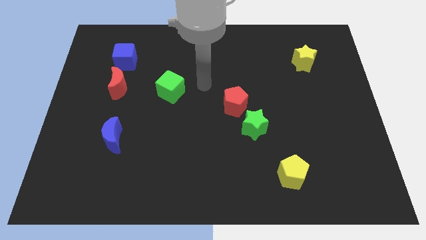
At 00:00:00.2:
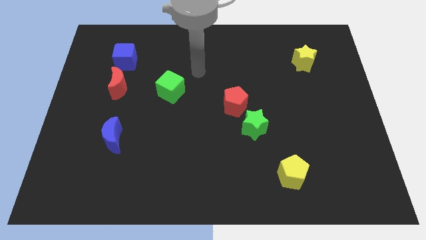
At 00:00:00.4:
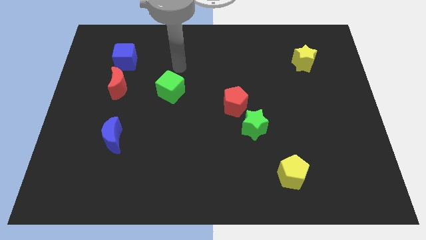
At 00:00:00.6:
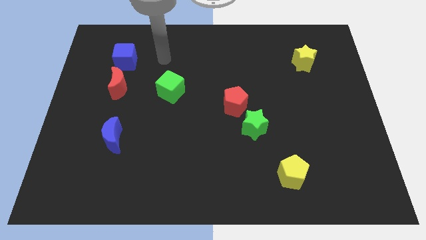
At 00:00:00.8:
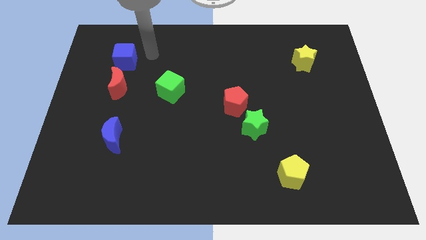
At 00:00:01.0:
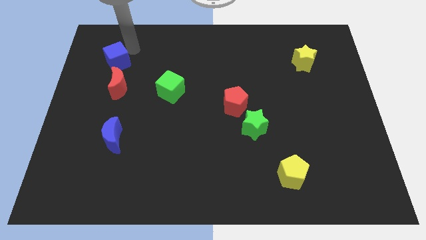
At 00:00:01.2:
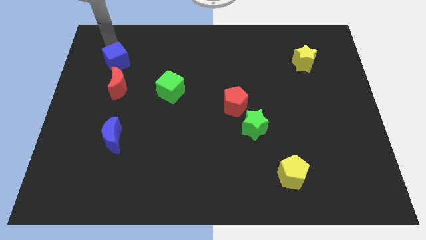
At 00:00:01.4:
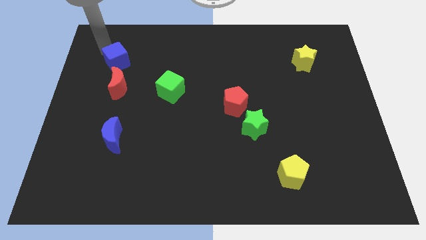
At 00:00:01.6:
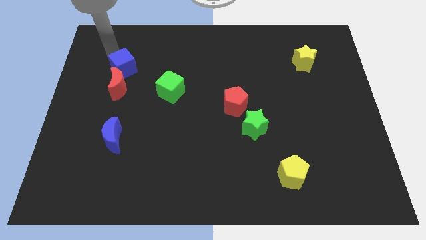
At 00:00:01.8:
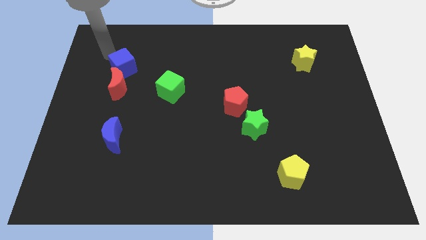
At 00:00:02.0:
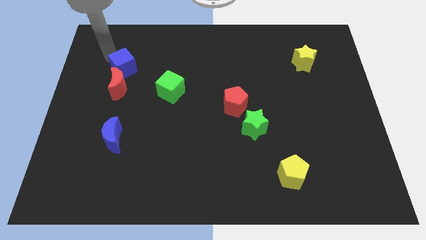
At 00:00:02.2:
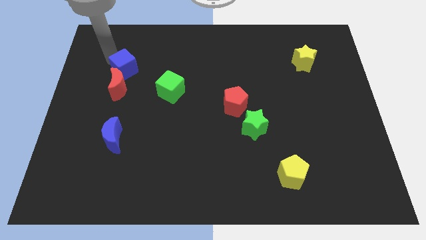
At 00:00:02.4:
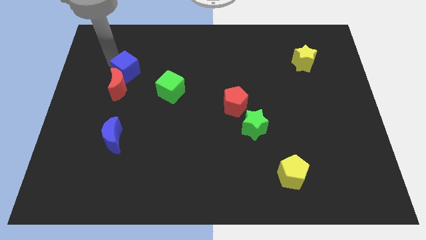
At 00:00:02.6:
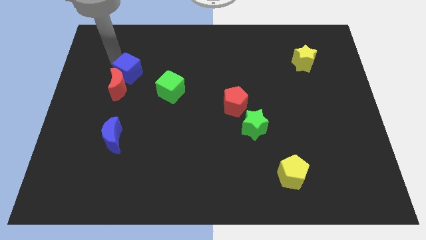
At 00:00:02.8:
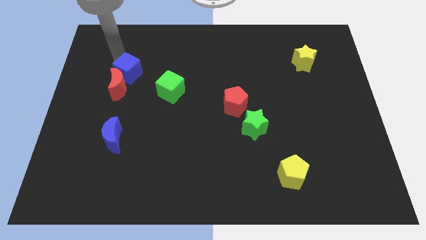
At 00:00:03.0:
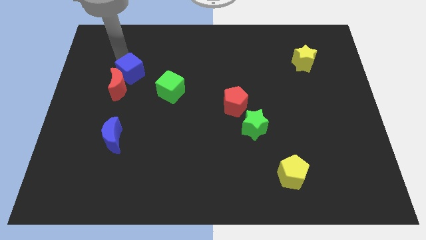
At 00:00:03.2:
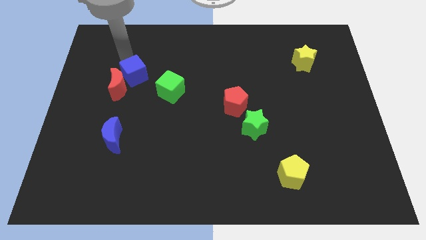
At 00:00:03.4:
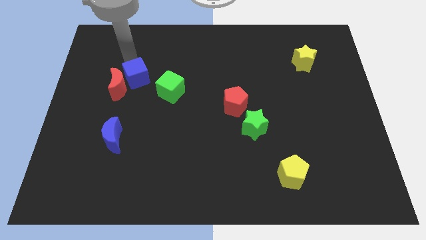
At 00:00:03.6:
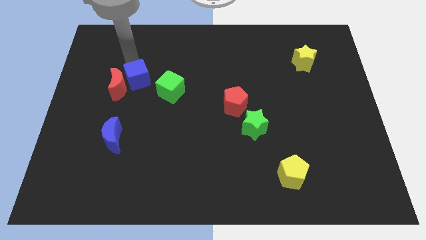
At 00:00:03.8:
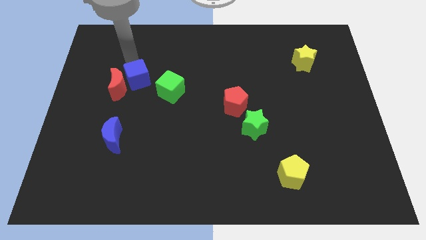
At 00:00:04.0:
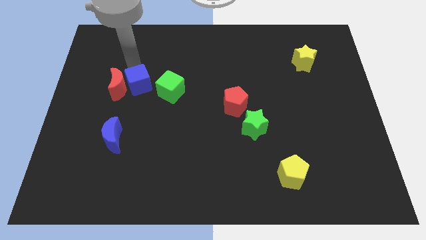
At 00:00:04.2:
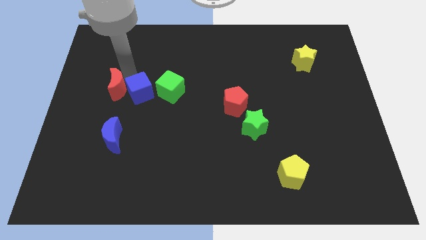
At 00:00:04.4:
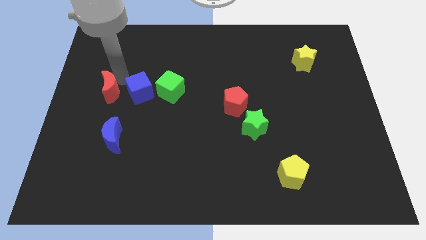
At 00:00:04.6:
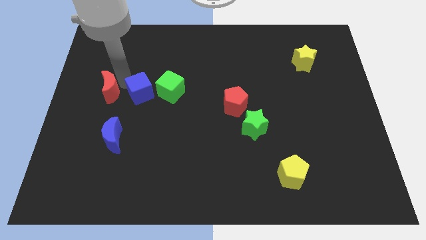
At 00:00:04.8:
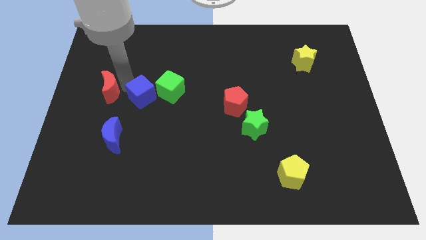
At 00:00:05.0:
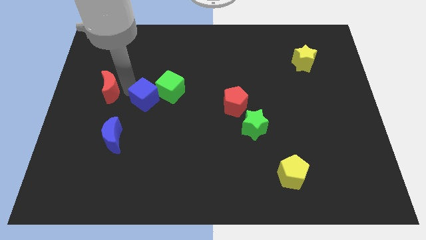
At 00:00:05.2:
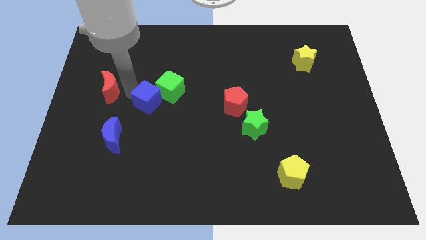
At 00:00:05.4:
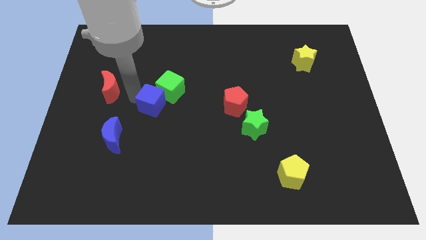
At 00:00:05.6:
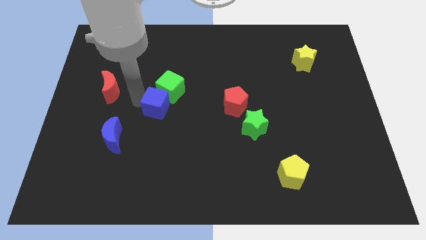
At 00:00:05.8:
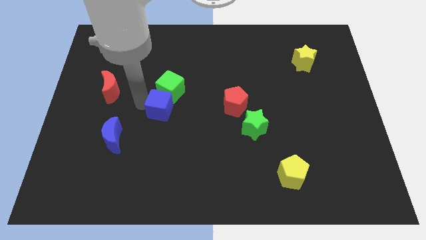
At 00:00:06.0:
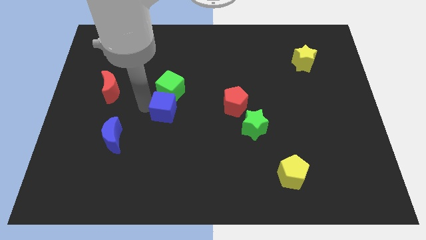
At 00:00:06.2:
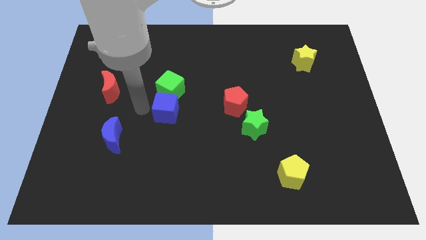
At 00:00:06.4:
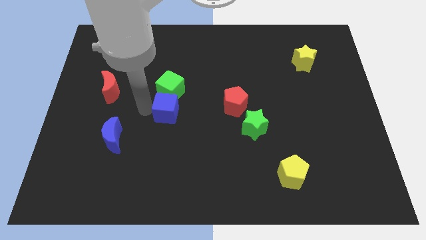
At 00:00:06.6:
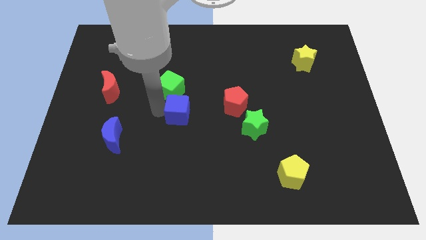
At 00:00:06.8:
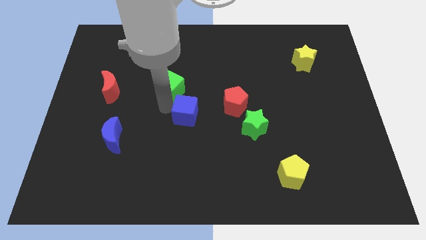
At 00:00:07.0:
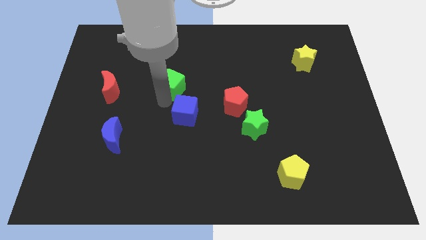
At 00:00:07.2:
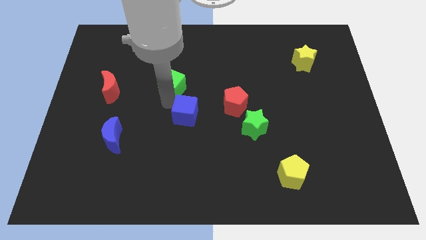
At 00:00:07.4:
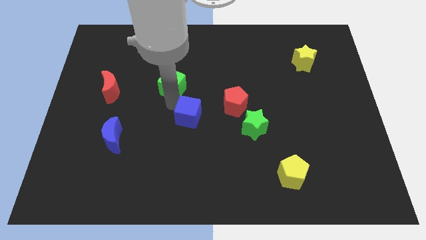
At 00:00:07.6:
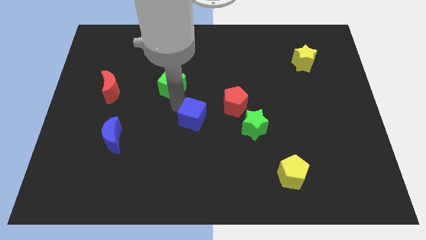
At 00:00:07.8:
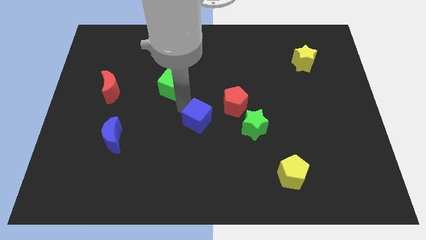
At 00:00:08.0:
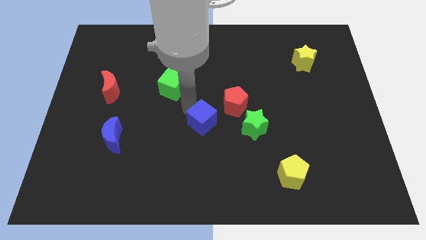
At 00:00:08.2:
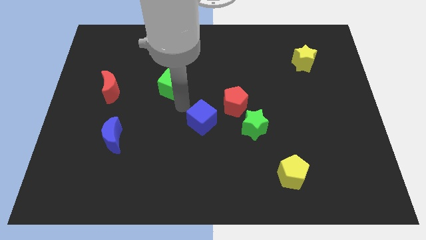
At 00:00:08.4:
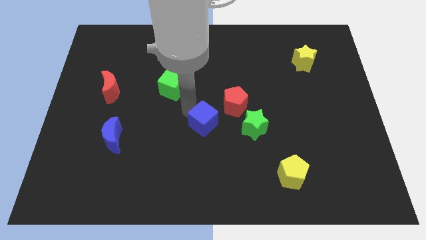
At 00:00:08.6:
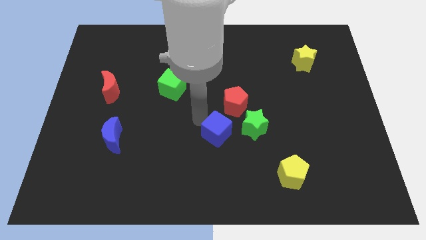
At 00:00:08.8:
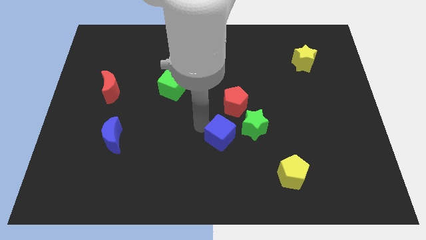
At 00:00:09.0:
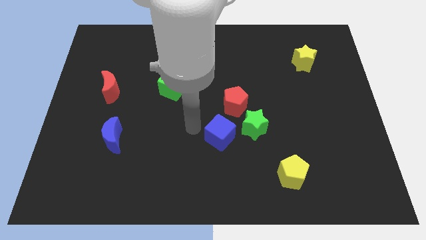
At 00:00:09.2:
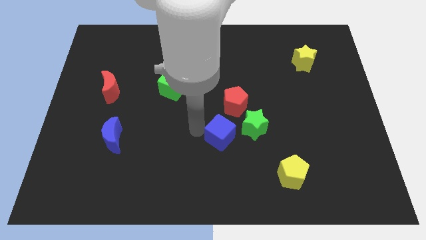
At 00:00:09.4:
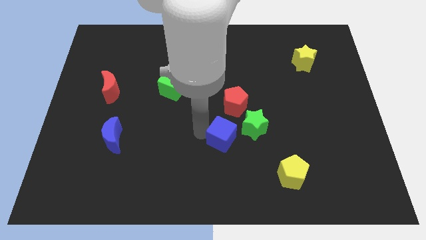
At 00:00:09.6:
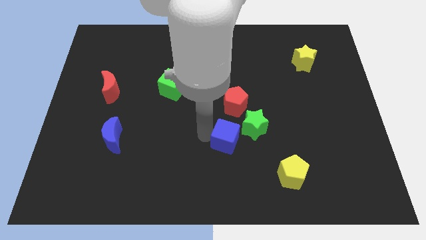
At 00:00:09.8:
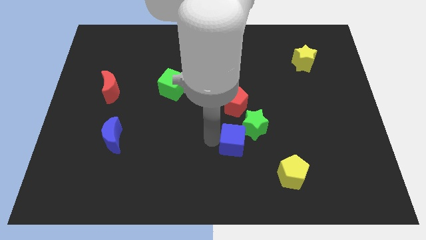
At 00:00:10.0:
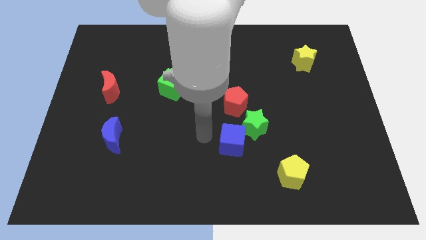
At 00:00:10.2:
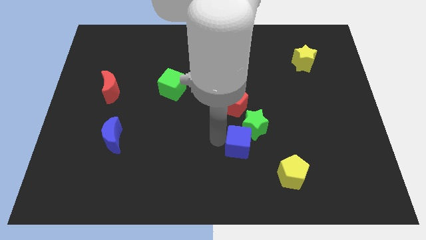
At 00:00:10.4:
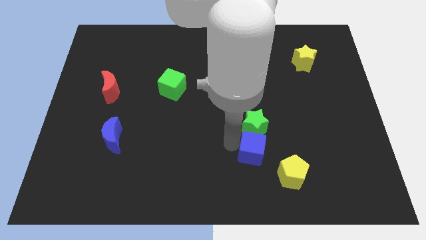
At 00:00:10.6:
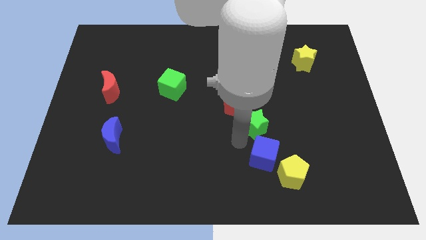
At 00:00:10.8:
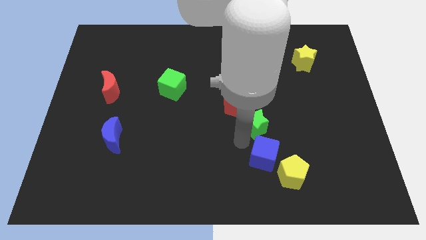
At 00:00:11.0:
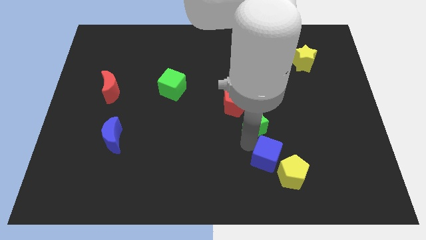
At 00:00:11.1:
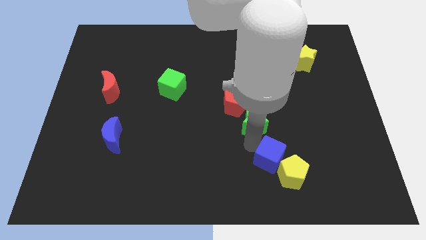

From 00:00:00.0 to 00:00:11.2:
put the blue cube towards the yellow pentagon

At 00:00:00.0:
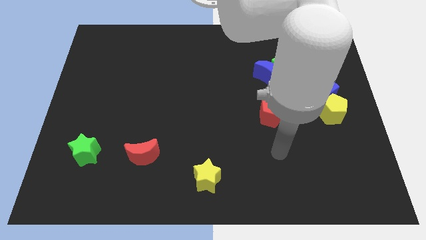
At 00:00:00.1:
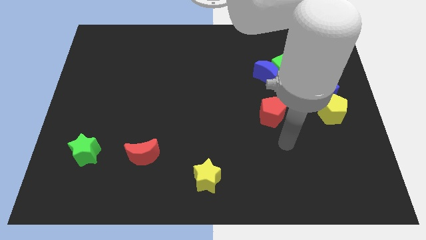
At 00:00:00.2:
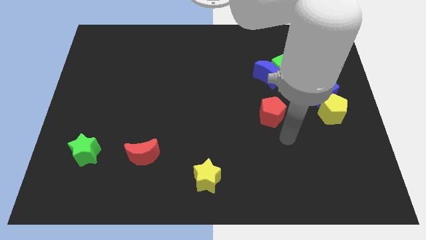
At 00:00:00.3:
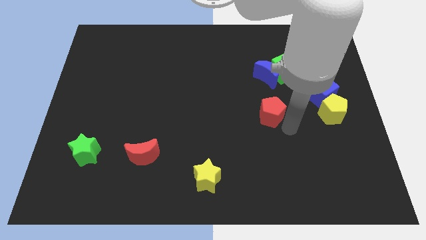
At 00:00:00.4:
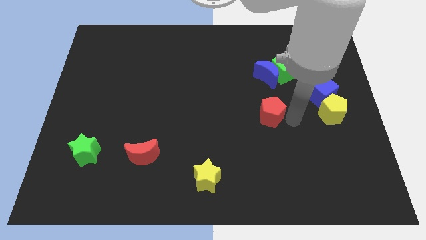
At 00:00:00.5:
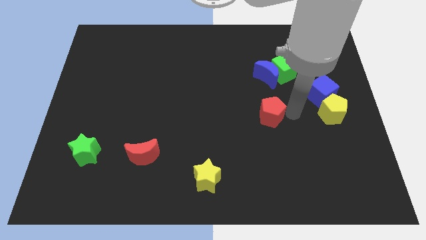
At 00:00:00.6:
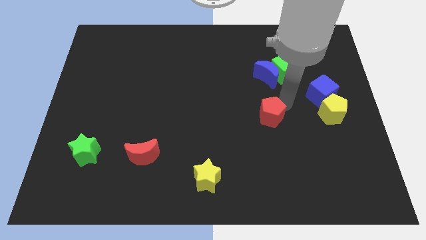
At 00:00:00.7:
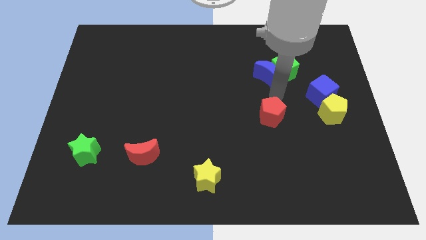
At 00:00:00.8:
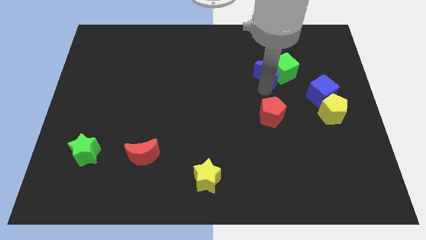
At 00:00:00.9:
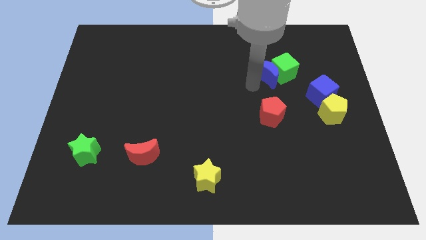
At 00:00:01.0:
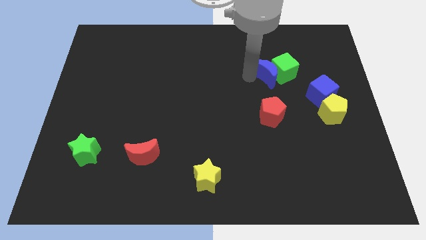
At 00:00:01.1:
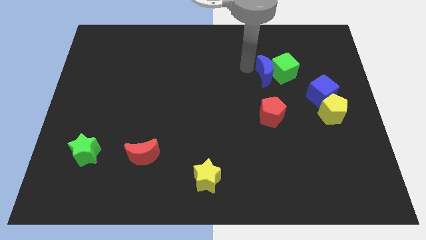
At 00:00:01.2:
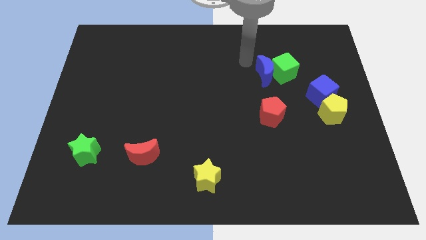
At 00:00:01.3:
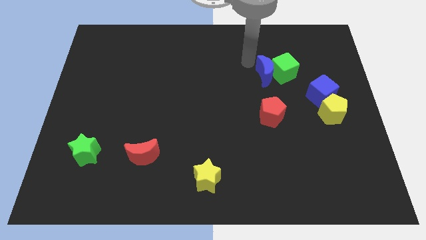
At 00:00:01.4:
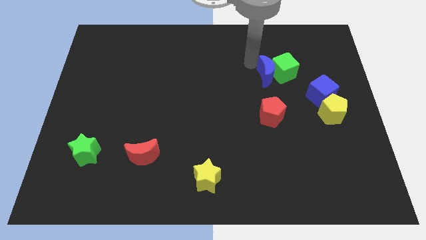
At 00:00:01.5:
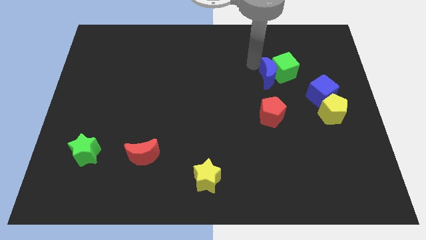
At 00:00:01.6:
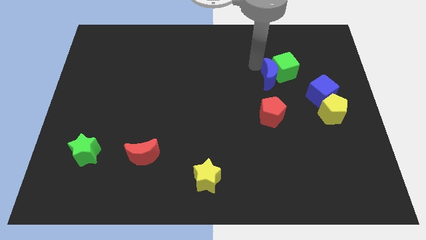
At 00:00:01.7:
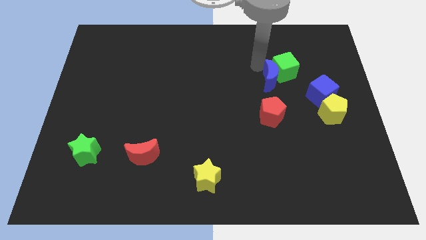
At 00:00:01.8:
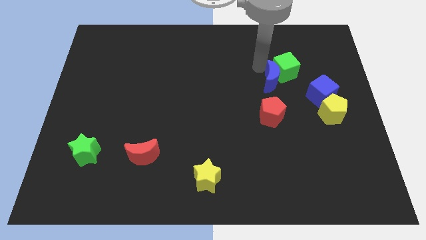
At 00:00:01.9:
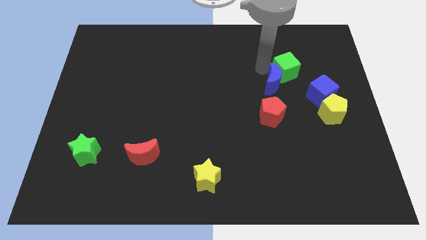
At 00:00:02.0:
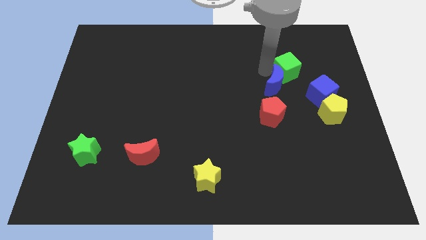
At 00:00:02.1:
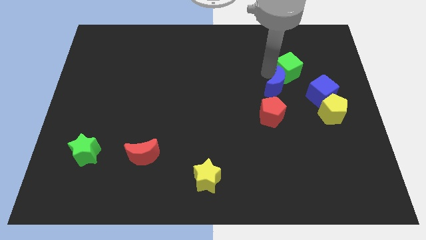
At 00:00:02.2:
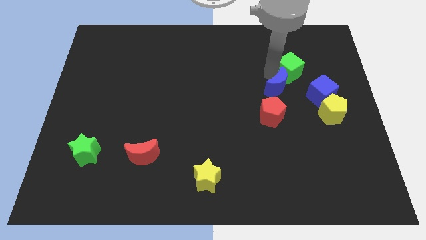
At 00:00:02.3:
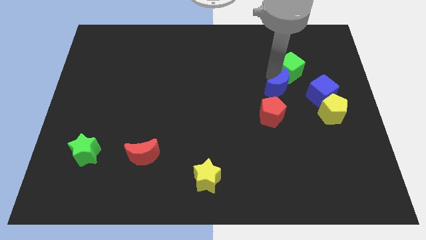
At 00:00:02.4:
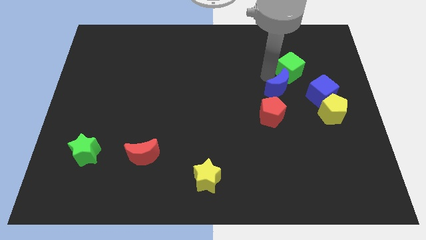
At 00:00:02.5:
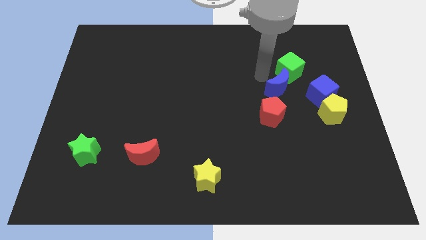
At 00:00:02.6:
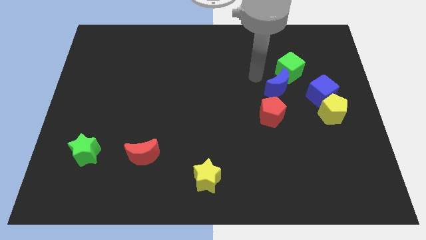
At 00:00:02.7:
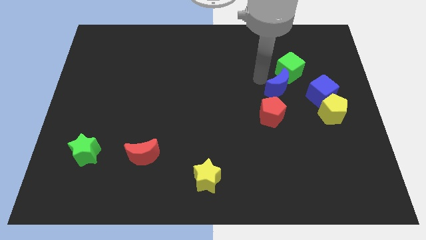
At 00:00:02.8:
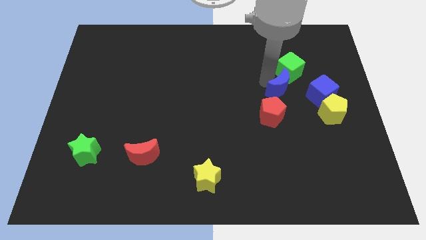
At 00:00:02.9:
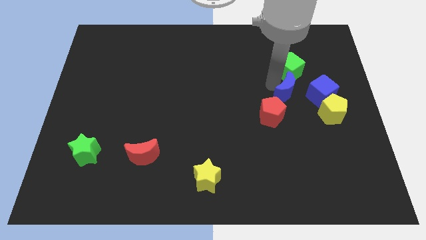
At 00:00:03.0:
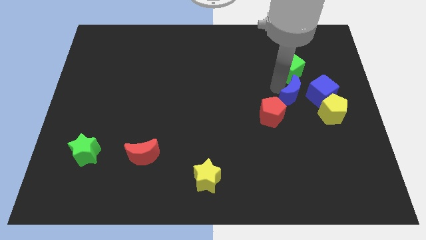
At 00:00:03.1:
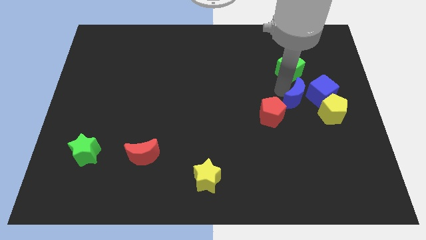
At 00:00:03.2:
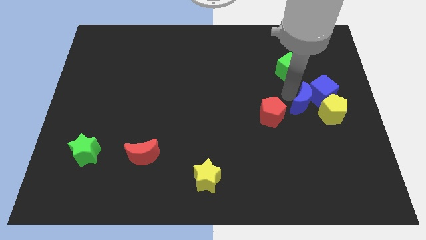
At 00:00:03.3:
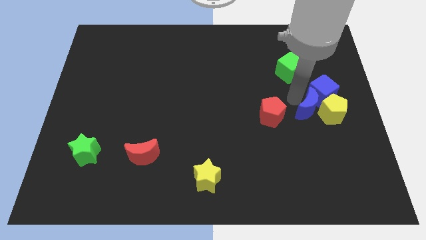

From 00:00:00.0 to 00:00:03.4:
move the blue moon towards the yellow pentagon
